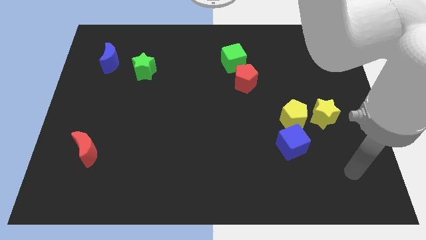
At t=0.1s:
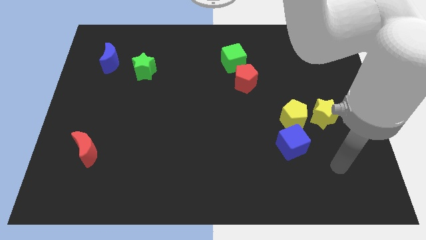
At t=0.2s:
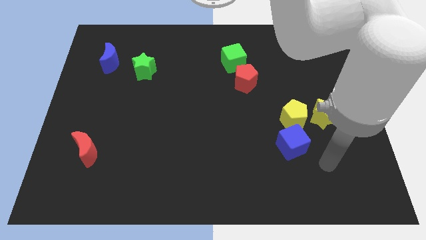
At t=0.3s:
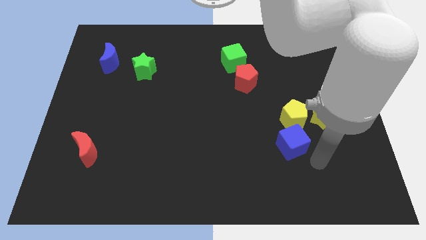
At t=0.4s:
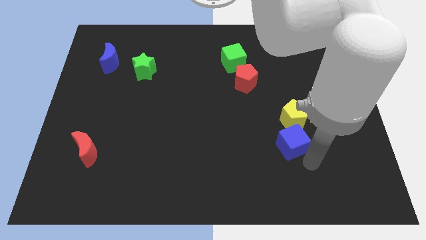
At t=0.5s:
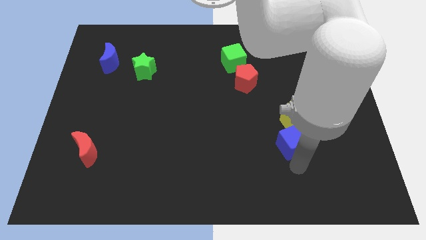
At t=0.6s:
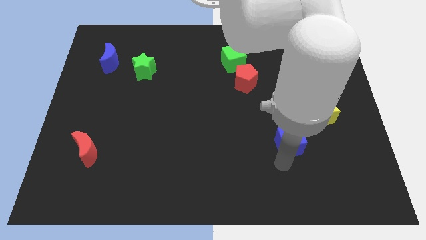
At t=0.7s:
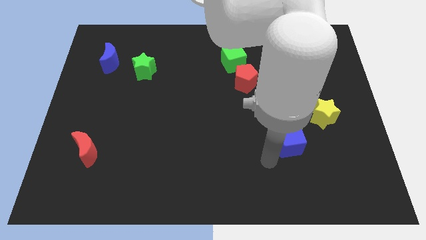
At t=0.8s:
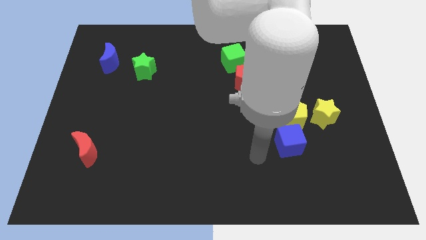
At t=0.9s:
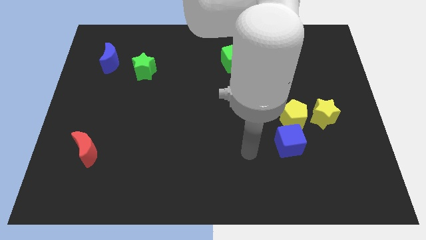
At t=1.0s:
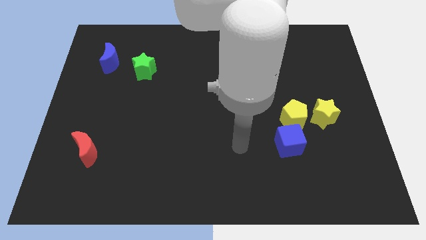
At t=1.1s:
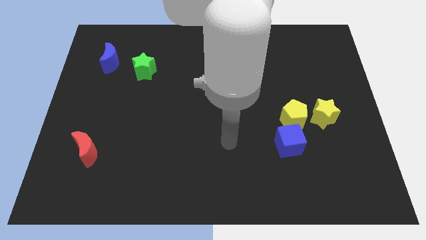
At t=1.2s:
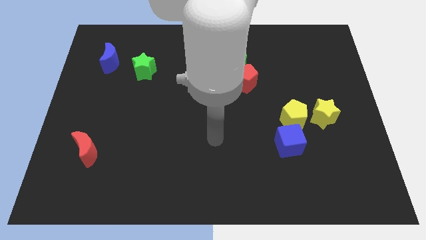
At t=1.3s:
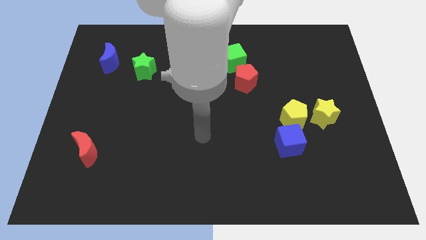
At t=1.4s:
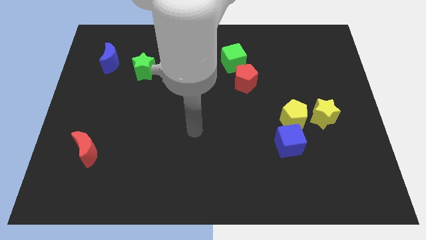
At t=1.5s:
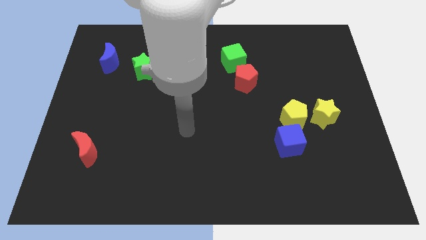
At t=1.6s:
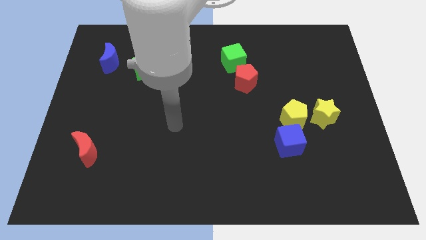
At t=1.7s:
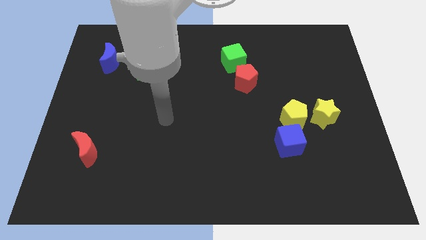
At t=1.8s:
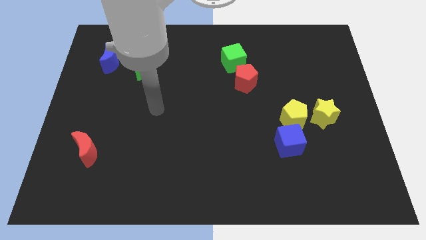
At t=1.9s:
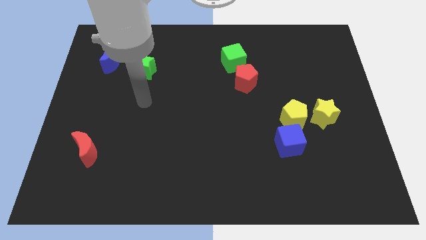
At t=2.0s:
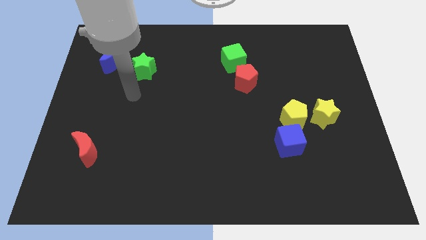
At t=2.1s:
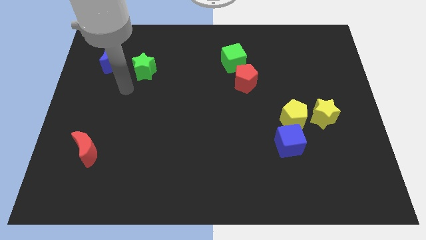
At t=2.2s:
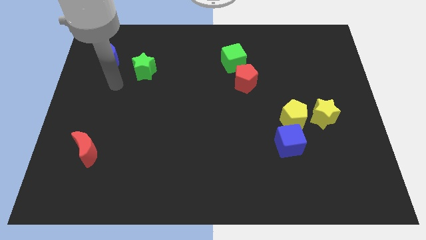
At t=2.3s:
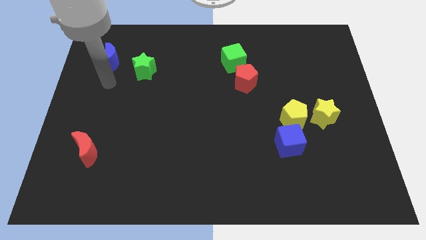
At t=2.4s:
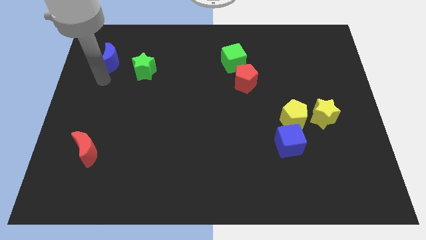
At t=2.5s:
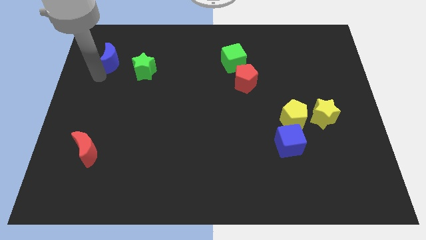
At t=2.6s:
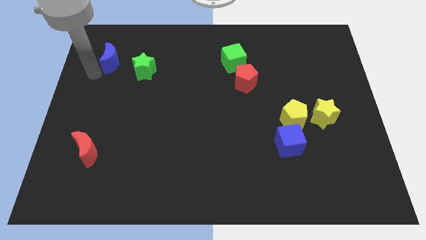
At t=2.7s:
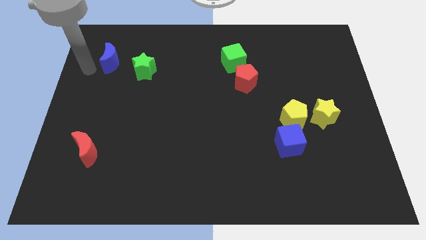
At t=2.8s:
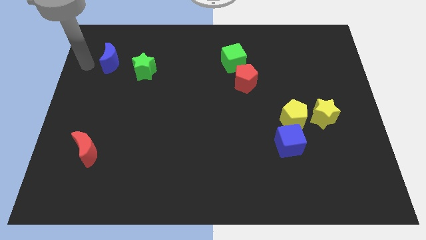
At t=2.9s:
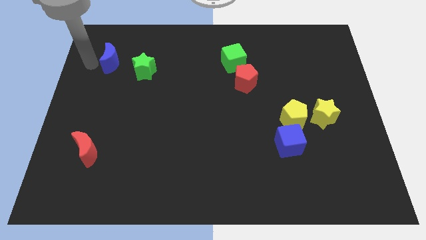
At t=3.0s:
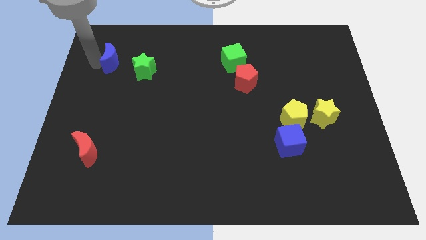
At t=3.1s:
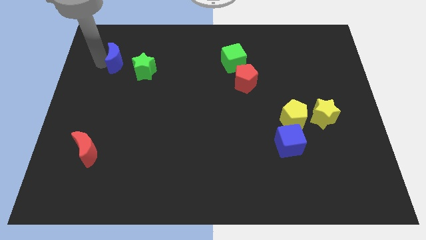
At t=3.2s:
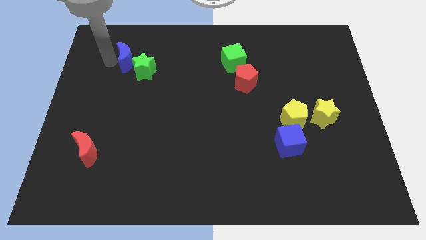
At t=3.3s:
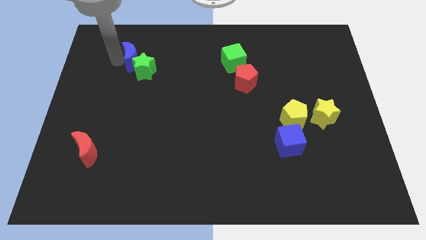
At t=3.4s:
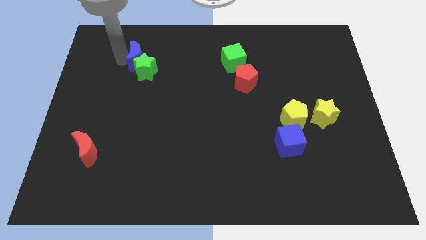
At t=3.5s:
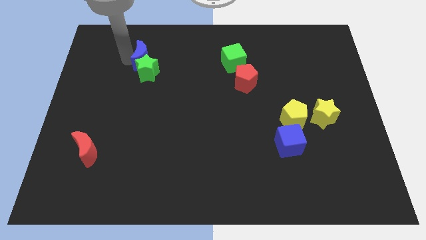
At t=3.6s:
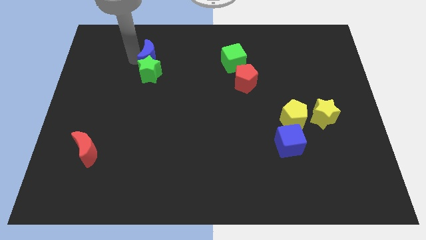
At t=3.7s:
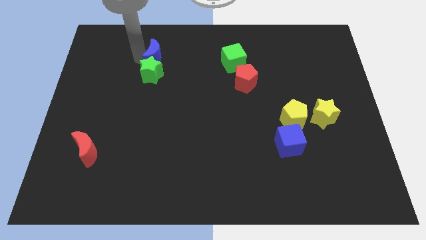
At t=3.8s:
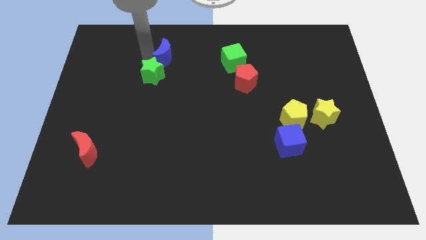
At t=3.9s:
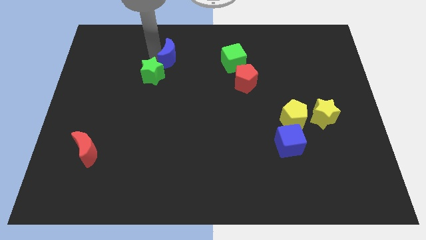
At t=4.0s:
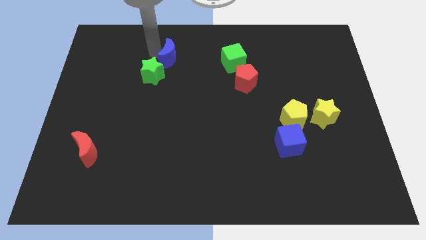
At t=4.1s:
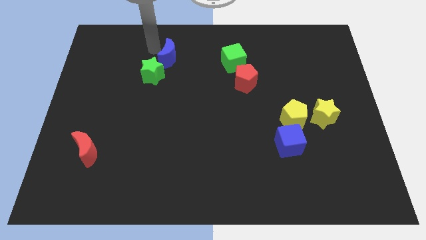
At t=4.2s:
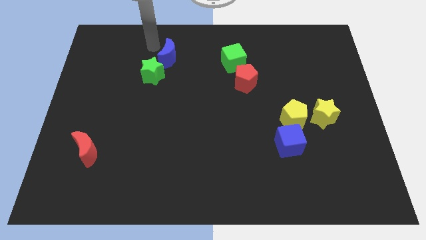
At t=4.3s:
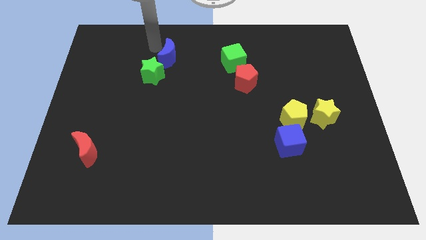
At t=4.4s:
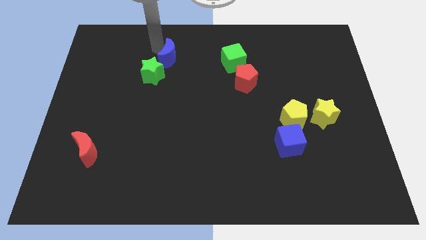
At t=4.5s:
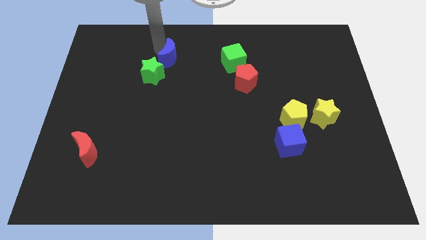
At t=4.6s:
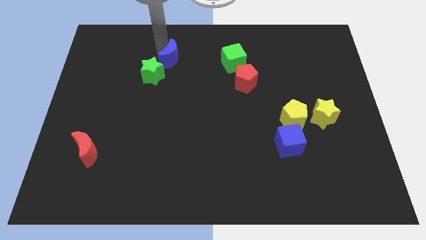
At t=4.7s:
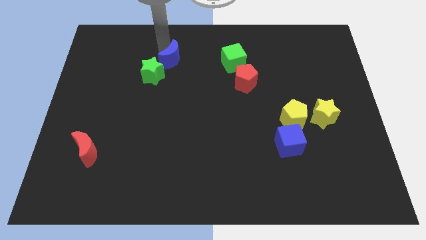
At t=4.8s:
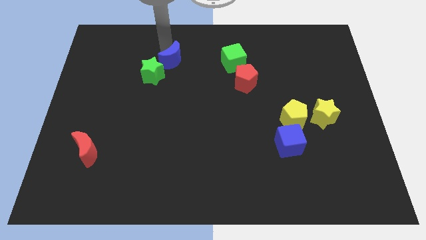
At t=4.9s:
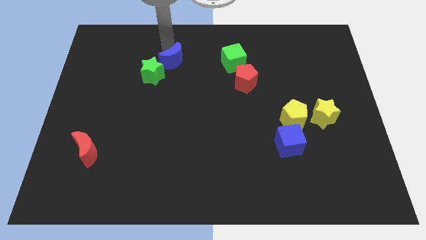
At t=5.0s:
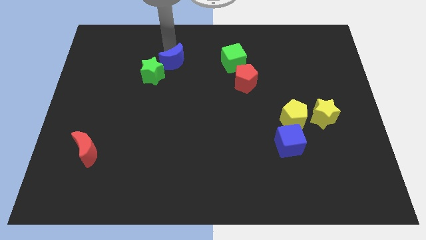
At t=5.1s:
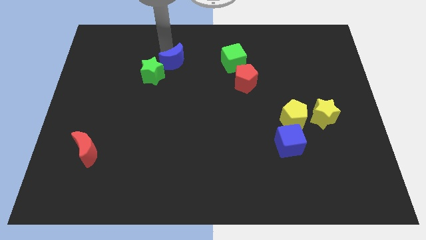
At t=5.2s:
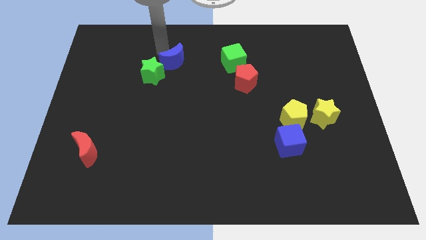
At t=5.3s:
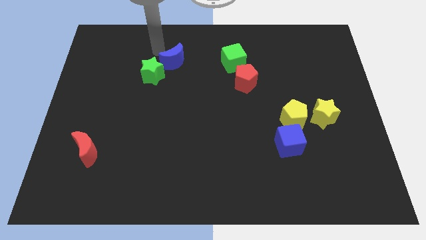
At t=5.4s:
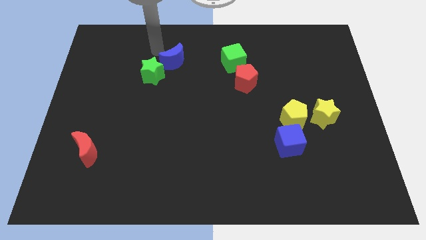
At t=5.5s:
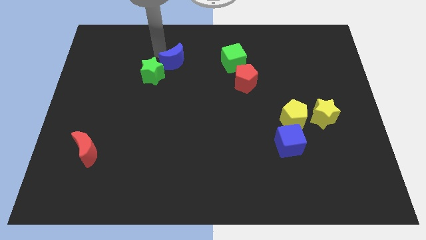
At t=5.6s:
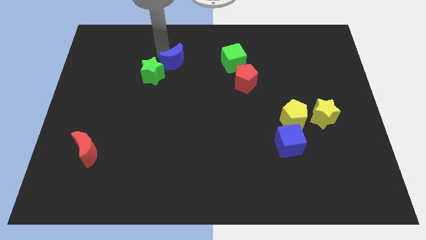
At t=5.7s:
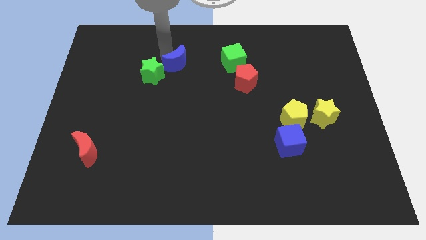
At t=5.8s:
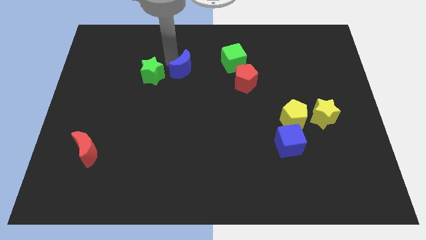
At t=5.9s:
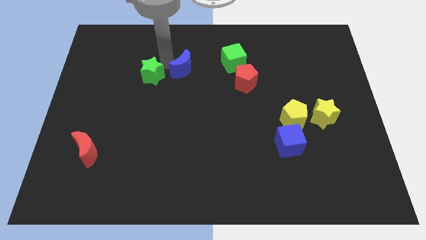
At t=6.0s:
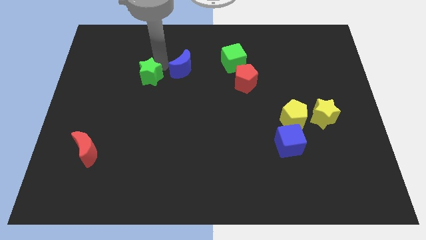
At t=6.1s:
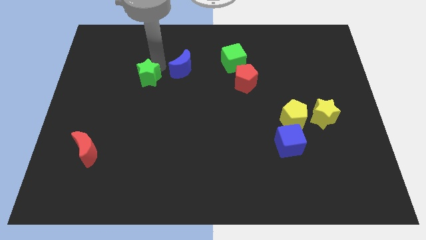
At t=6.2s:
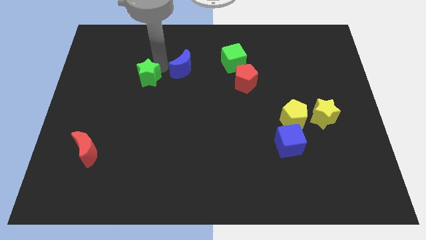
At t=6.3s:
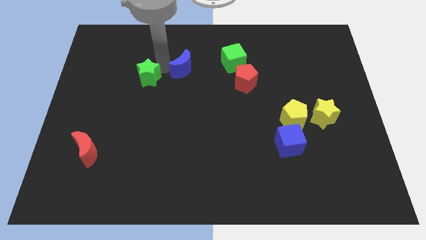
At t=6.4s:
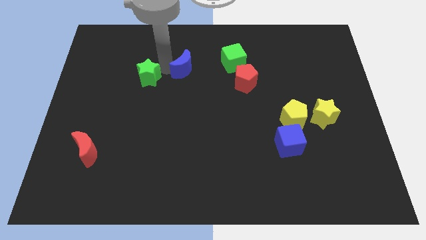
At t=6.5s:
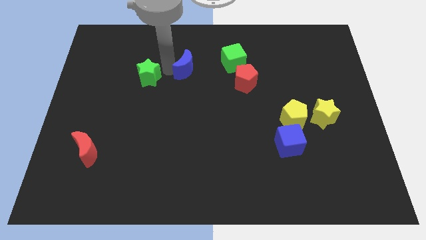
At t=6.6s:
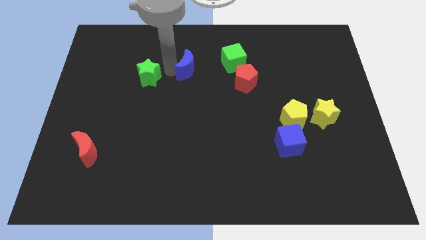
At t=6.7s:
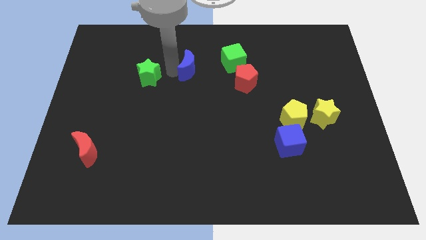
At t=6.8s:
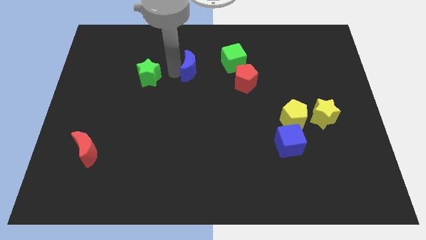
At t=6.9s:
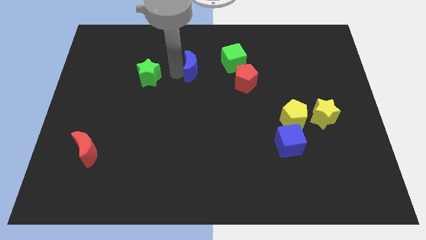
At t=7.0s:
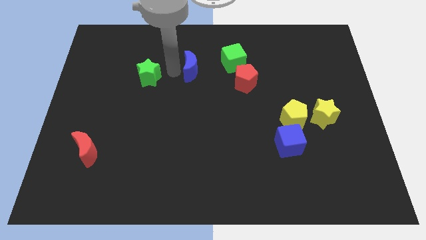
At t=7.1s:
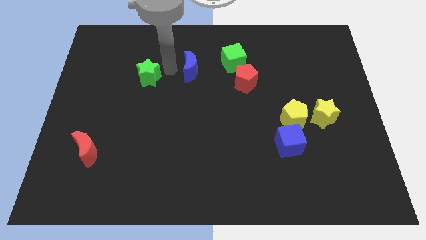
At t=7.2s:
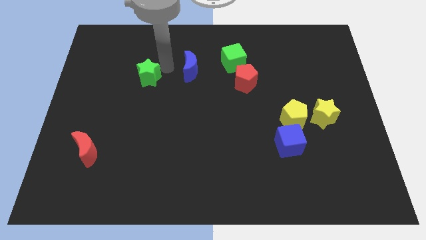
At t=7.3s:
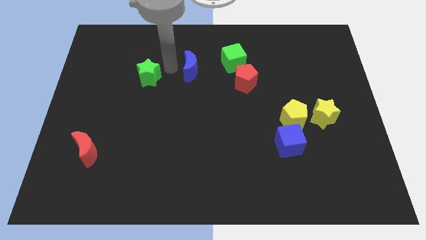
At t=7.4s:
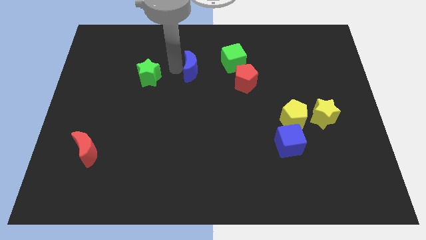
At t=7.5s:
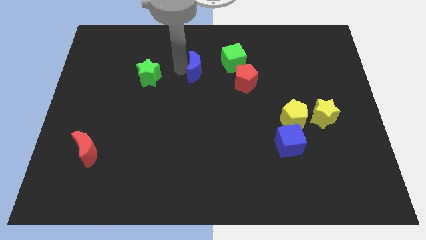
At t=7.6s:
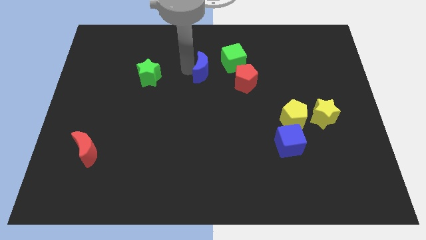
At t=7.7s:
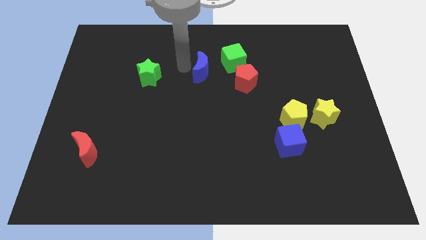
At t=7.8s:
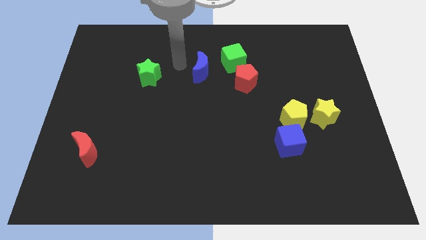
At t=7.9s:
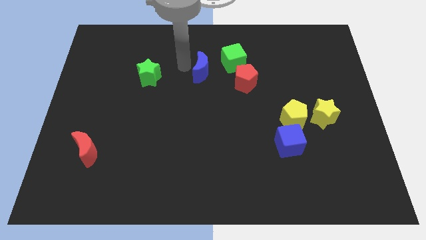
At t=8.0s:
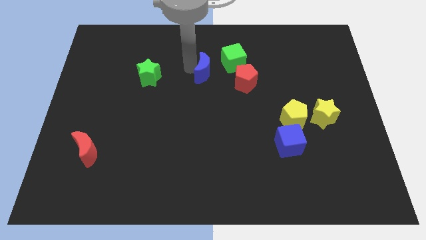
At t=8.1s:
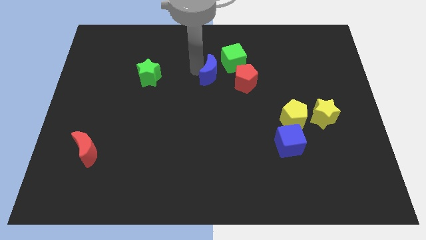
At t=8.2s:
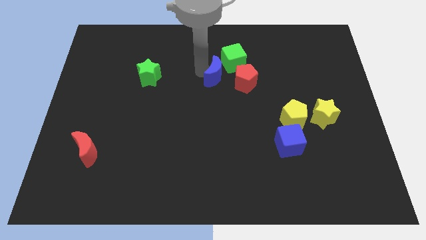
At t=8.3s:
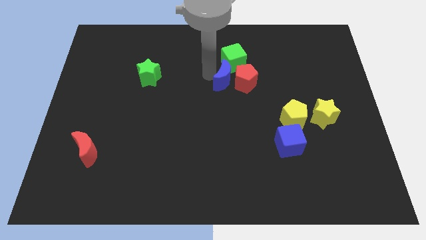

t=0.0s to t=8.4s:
push the blue moon to the red pentagon
